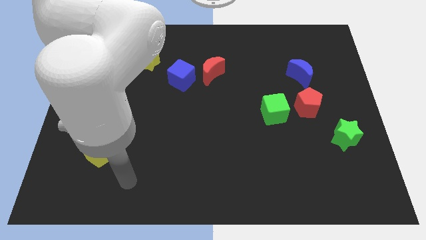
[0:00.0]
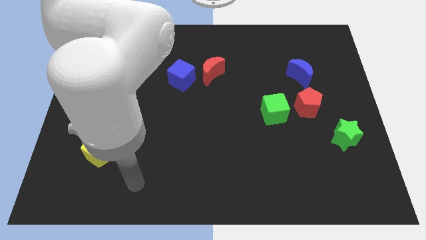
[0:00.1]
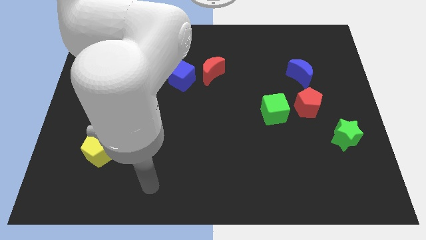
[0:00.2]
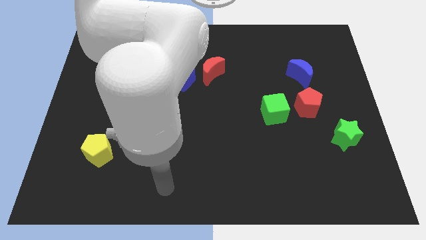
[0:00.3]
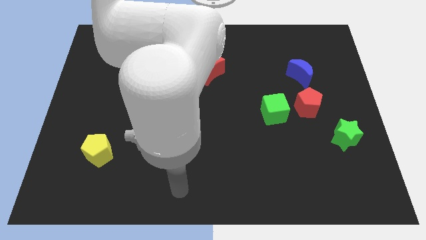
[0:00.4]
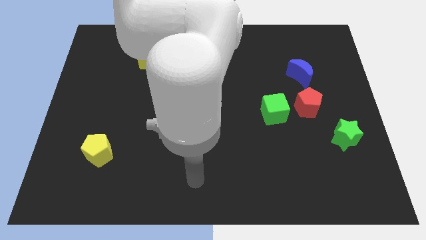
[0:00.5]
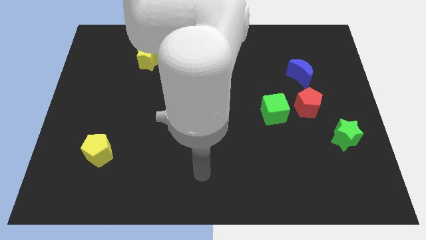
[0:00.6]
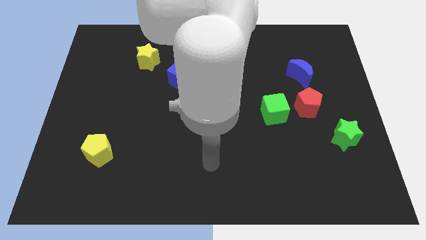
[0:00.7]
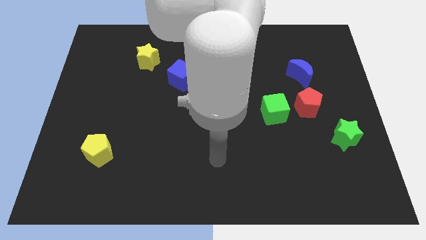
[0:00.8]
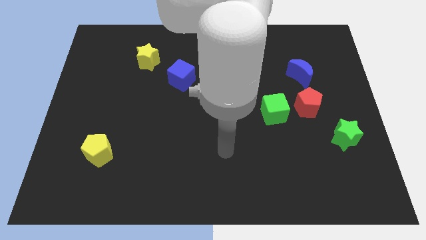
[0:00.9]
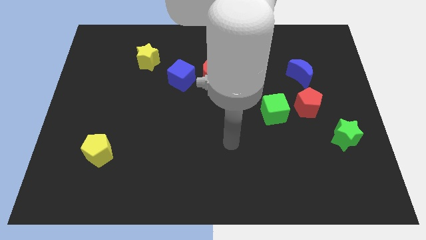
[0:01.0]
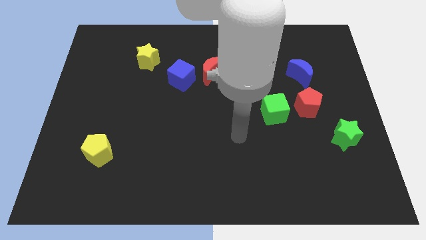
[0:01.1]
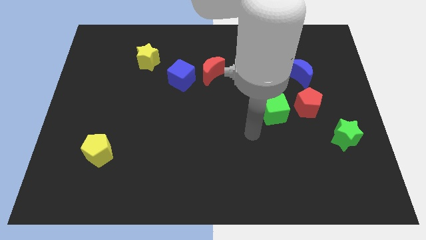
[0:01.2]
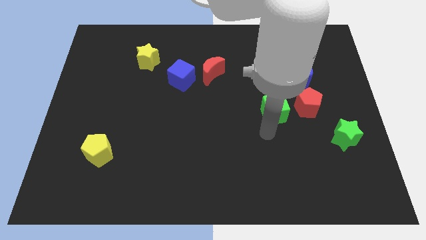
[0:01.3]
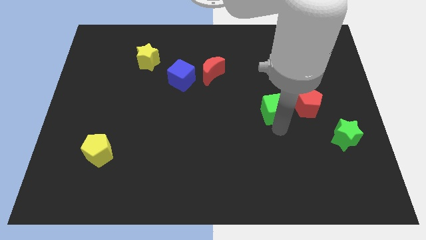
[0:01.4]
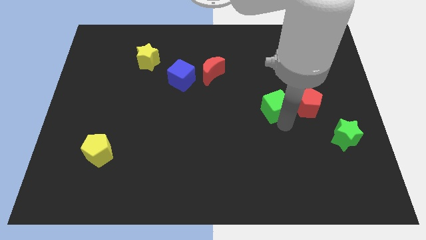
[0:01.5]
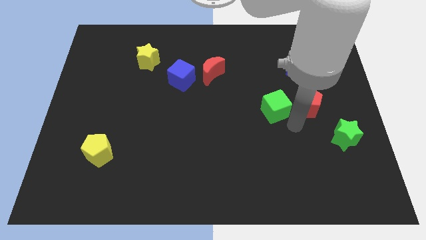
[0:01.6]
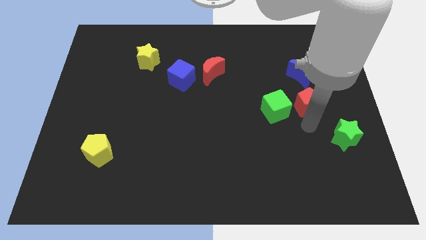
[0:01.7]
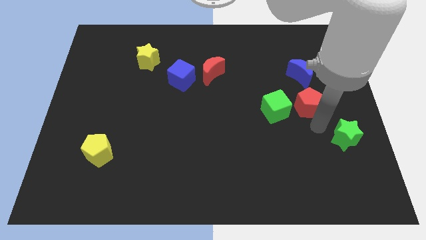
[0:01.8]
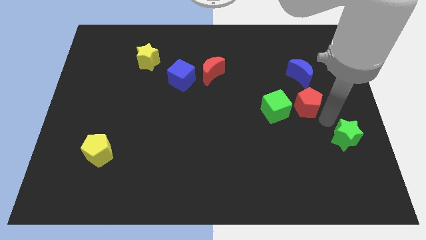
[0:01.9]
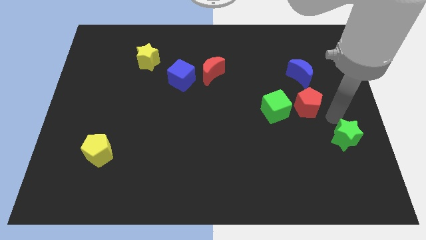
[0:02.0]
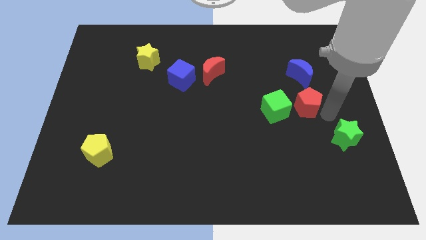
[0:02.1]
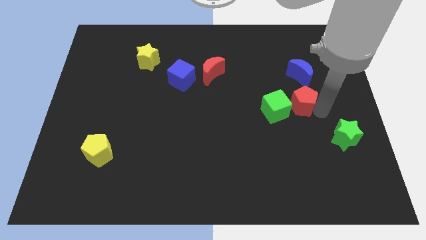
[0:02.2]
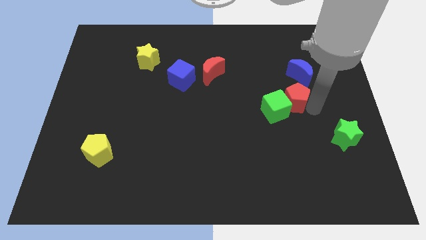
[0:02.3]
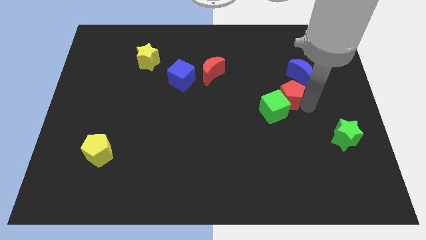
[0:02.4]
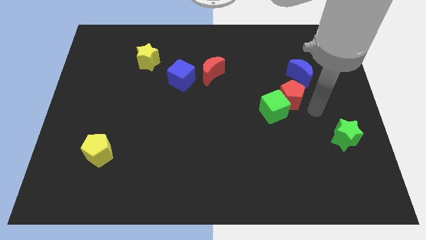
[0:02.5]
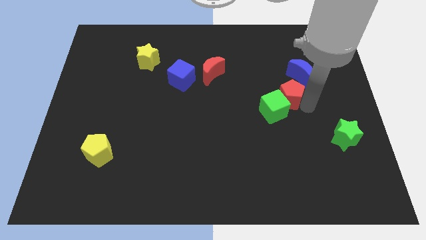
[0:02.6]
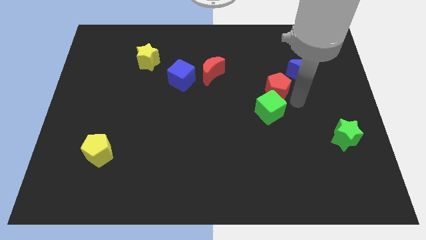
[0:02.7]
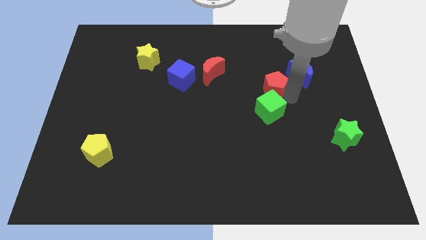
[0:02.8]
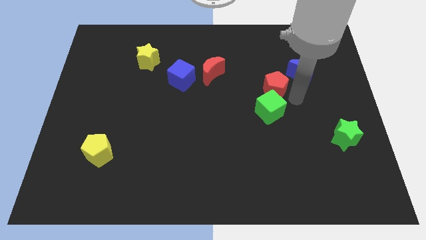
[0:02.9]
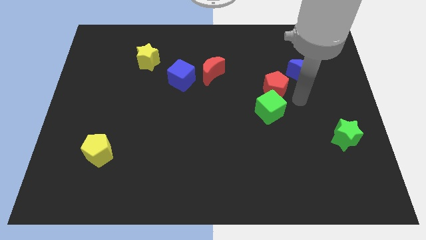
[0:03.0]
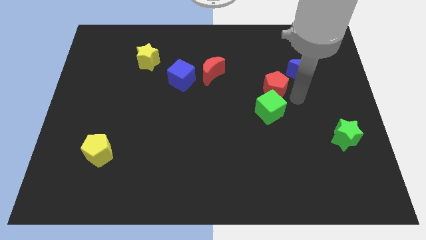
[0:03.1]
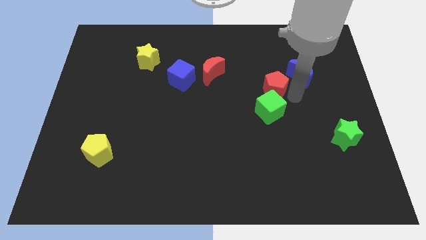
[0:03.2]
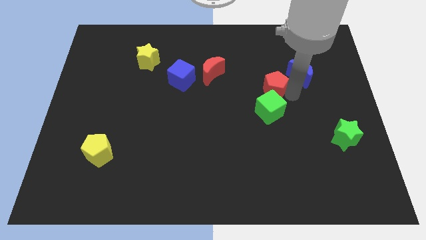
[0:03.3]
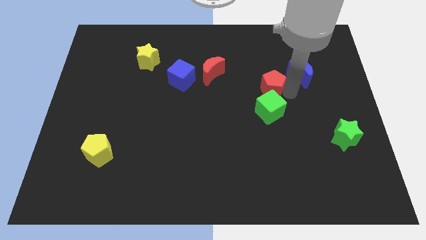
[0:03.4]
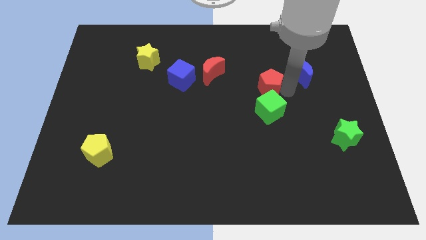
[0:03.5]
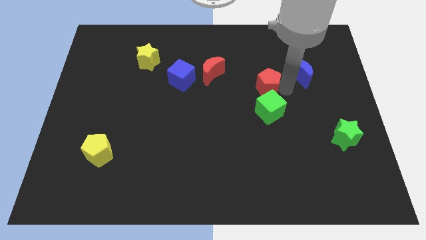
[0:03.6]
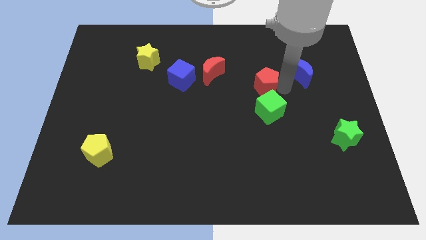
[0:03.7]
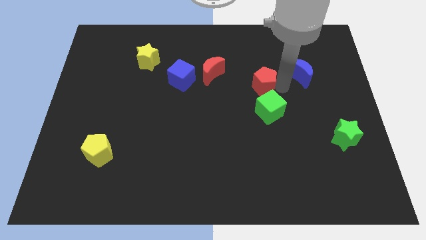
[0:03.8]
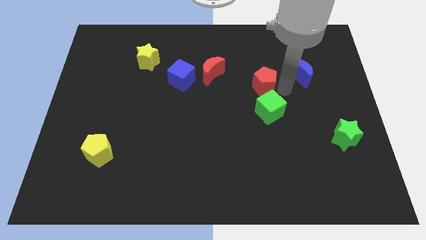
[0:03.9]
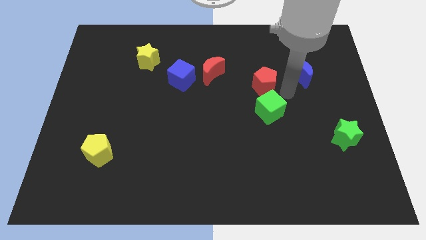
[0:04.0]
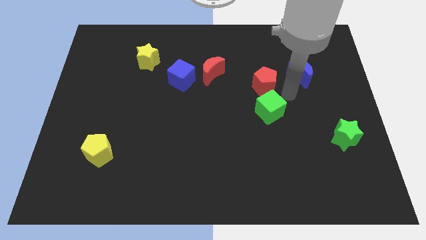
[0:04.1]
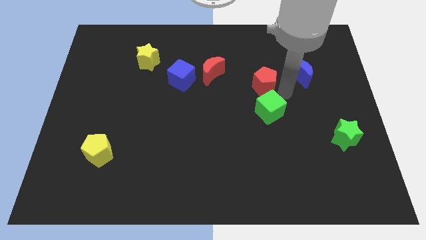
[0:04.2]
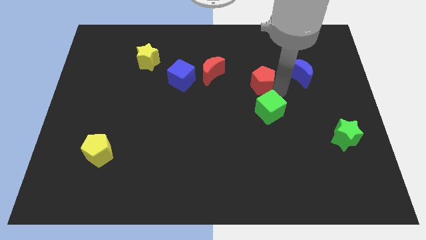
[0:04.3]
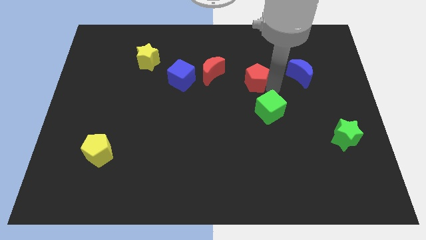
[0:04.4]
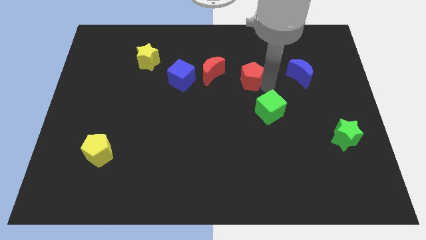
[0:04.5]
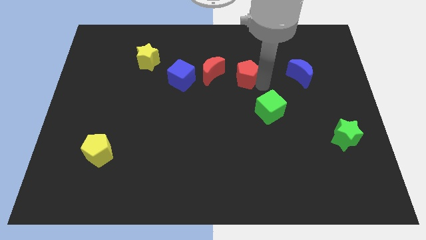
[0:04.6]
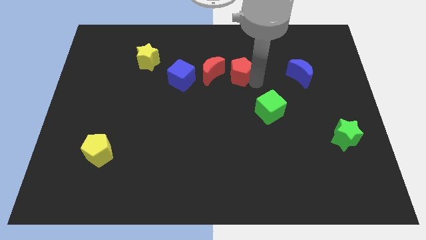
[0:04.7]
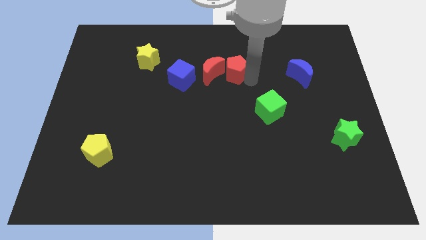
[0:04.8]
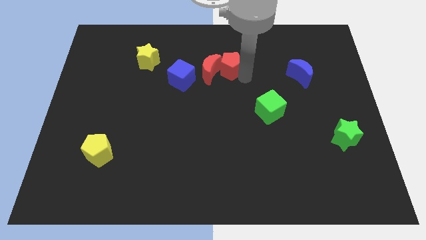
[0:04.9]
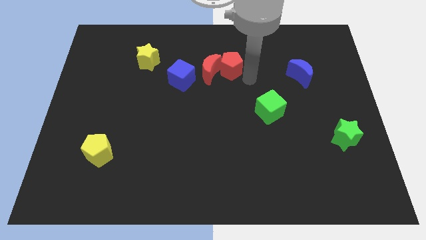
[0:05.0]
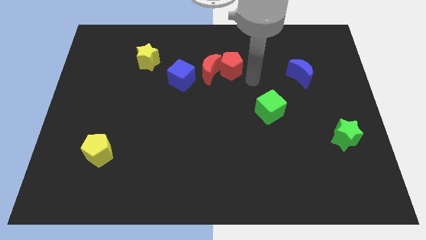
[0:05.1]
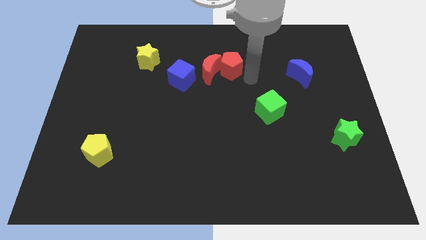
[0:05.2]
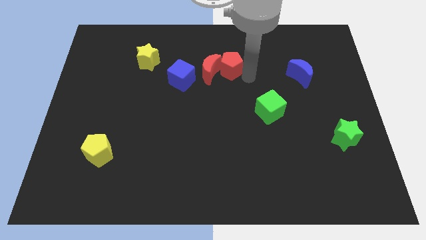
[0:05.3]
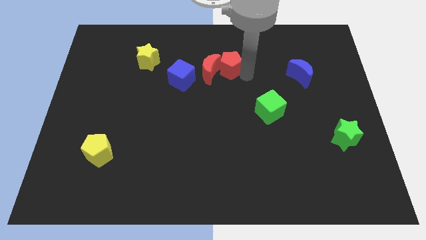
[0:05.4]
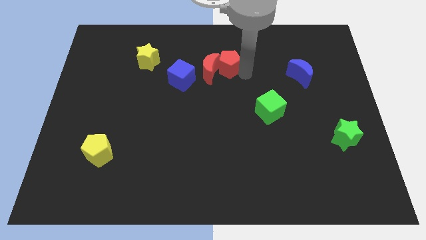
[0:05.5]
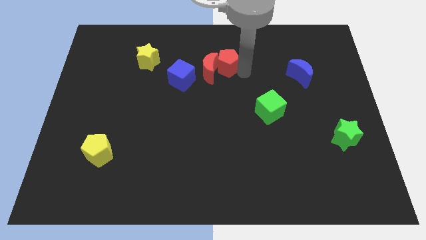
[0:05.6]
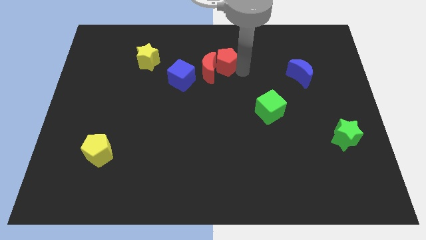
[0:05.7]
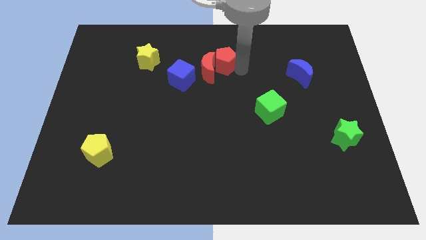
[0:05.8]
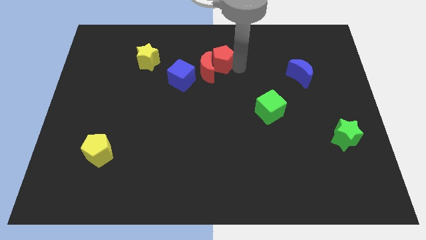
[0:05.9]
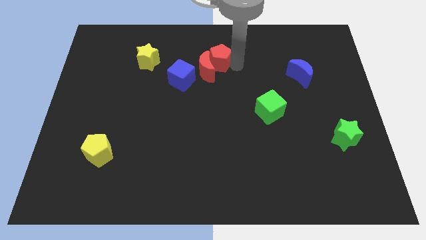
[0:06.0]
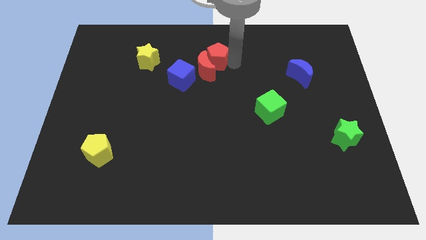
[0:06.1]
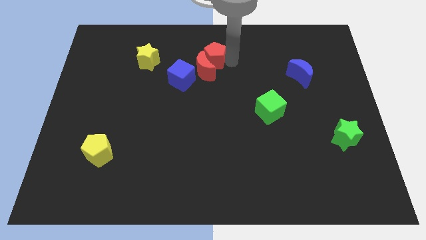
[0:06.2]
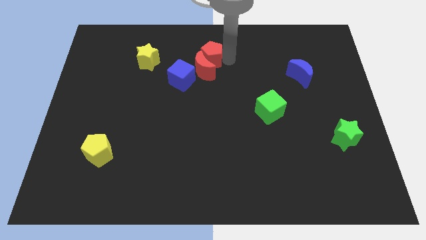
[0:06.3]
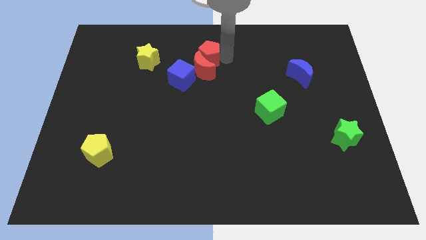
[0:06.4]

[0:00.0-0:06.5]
push the red pentagon diagonally up and to the left of the red moon
